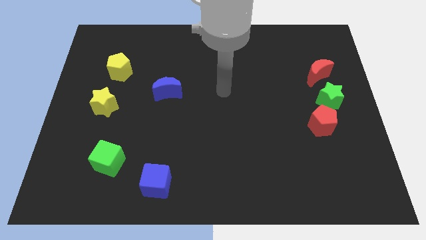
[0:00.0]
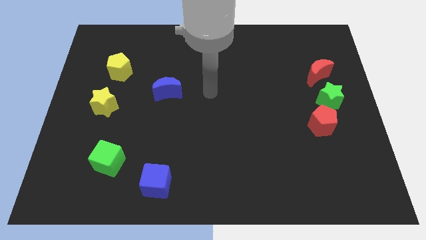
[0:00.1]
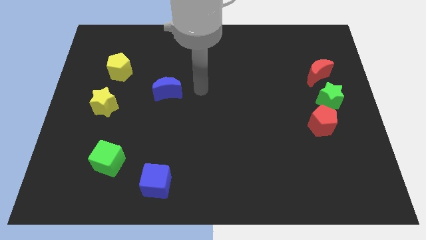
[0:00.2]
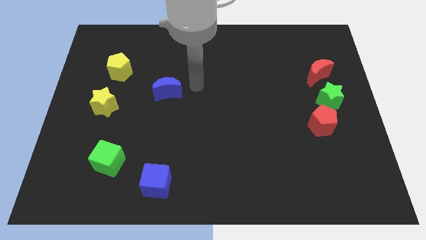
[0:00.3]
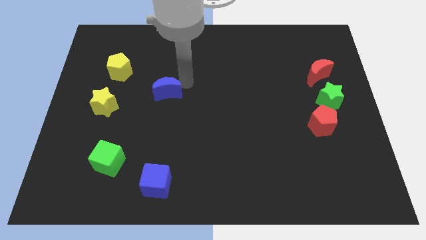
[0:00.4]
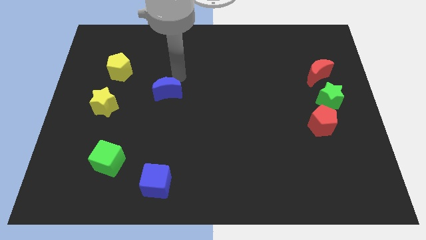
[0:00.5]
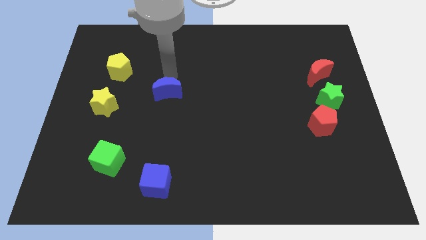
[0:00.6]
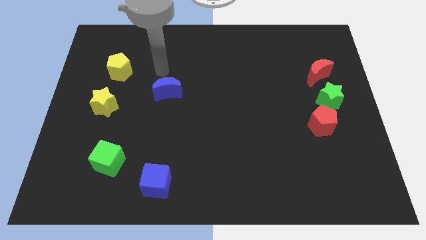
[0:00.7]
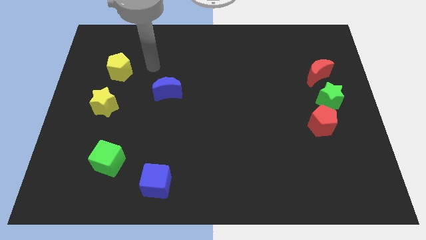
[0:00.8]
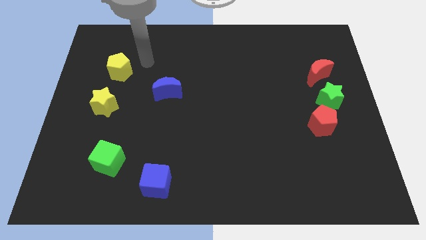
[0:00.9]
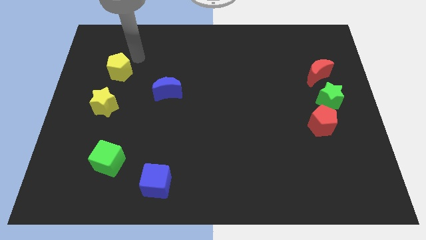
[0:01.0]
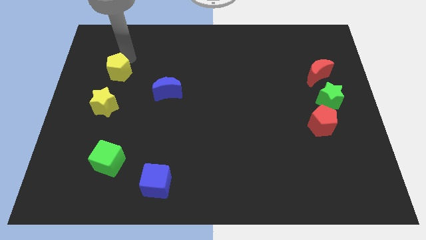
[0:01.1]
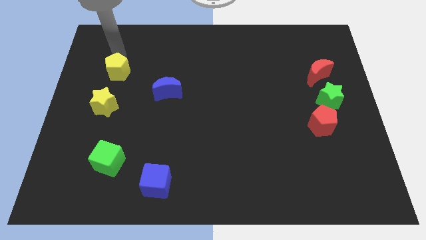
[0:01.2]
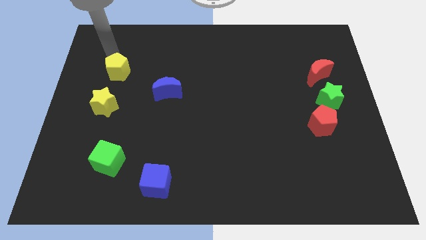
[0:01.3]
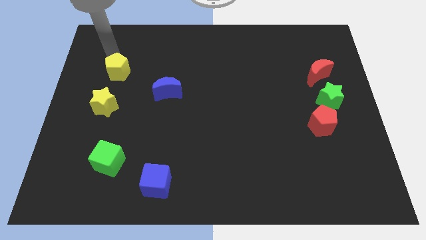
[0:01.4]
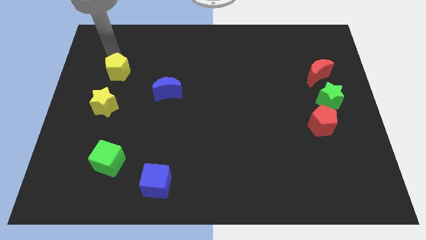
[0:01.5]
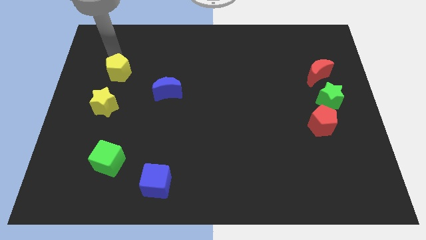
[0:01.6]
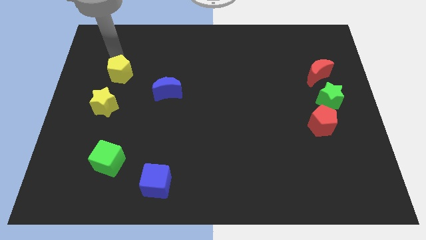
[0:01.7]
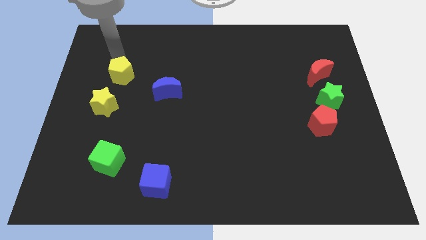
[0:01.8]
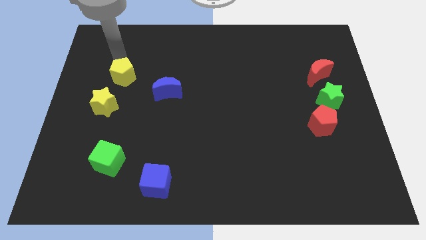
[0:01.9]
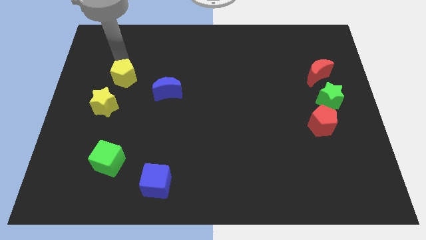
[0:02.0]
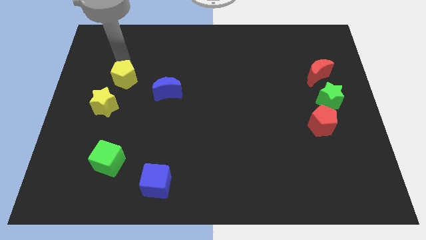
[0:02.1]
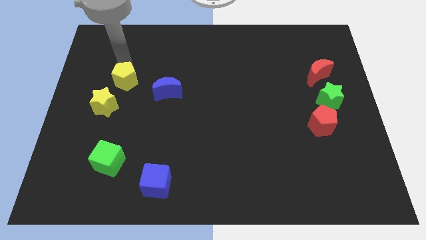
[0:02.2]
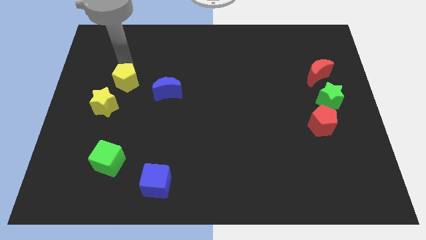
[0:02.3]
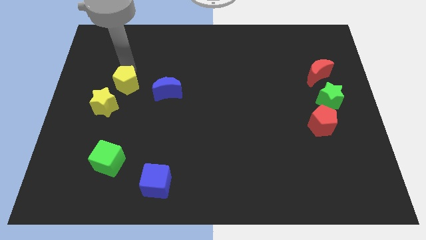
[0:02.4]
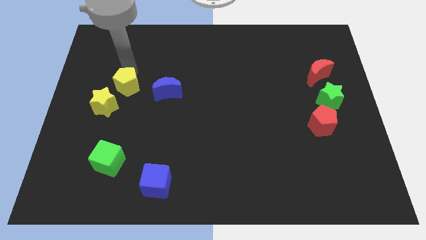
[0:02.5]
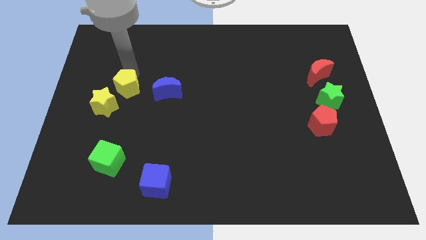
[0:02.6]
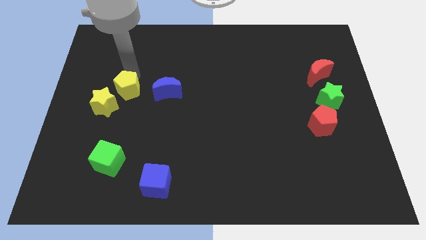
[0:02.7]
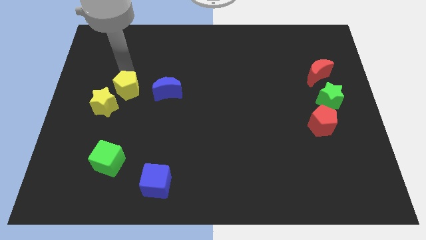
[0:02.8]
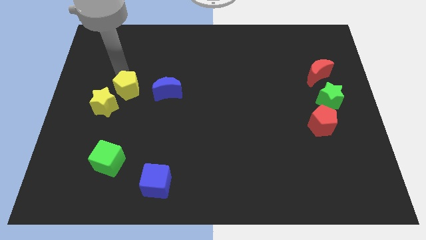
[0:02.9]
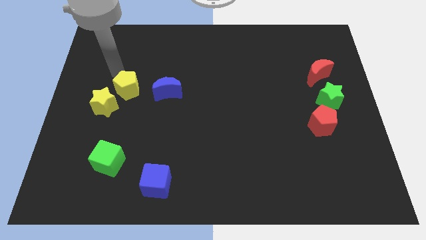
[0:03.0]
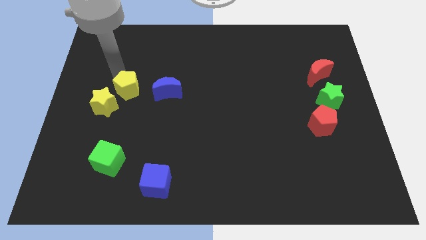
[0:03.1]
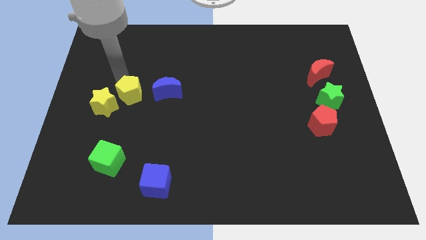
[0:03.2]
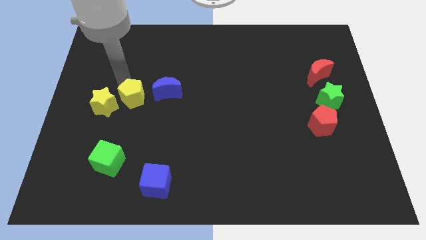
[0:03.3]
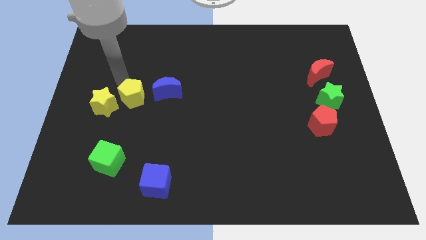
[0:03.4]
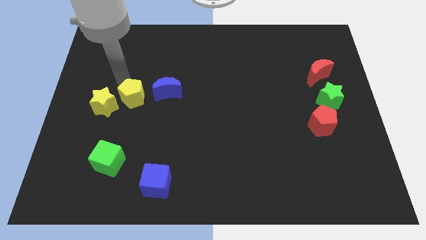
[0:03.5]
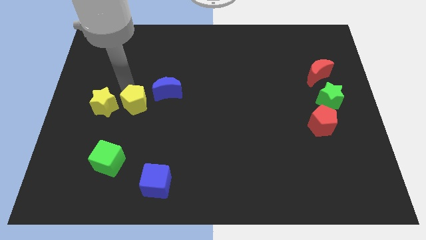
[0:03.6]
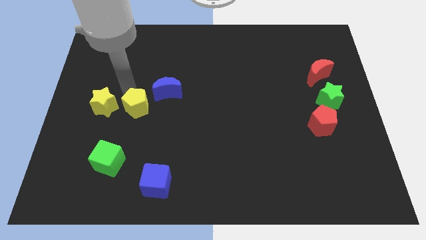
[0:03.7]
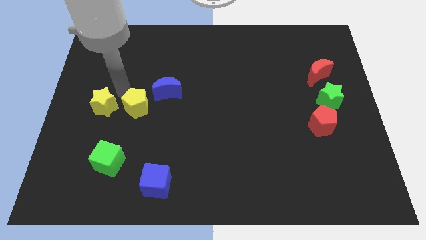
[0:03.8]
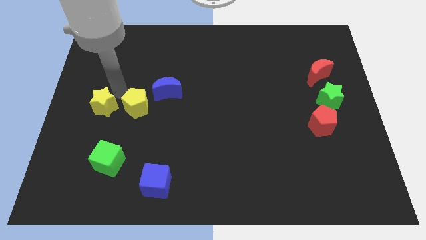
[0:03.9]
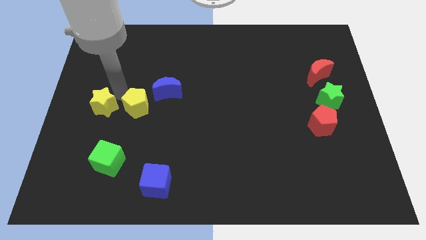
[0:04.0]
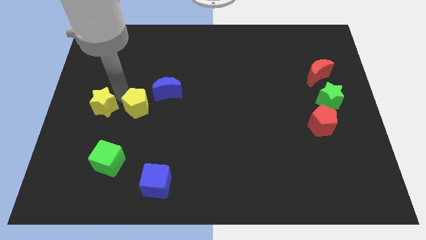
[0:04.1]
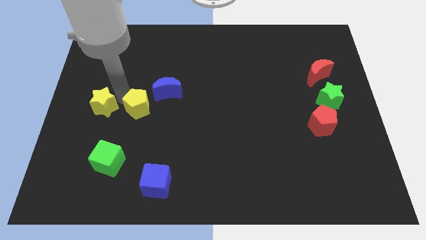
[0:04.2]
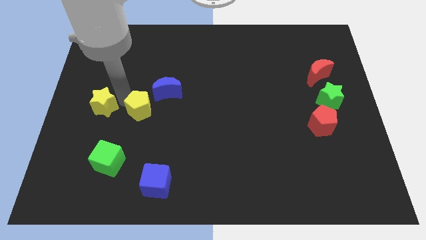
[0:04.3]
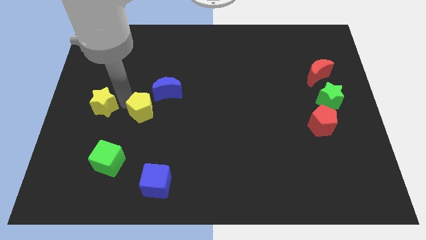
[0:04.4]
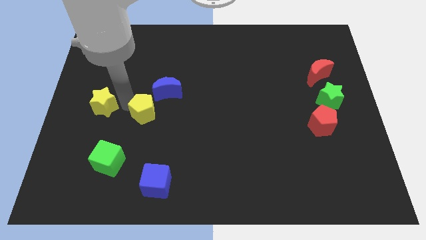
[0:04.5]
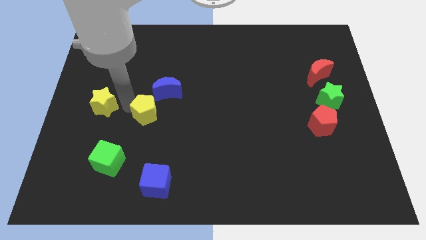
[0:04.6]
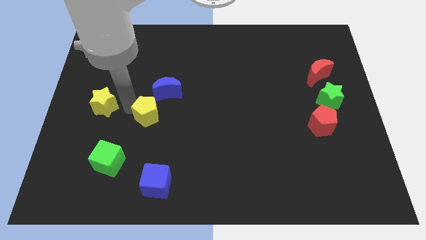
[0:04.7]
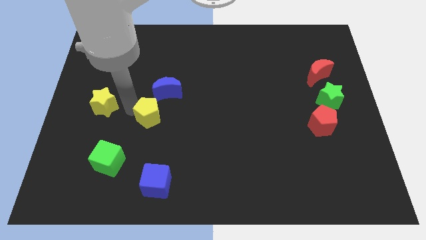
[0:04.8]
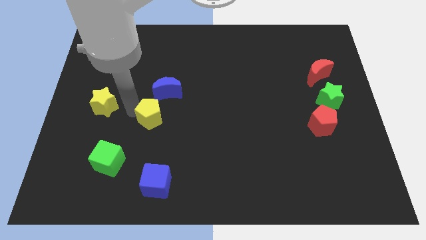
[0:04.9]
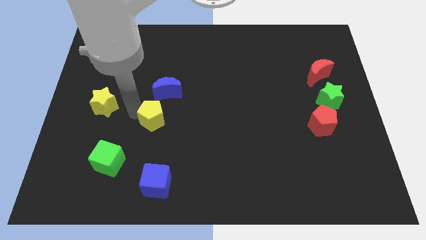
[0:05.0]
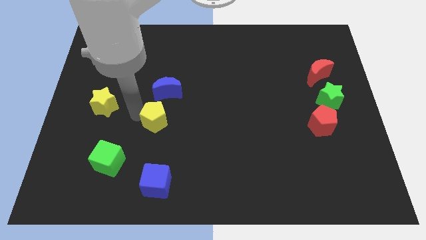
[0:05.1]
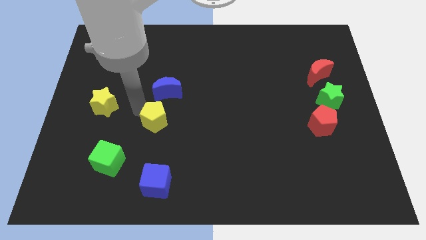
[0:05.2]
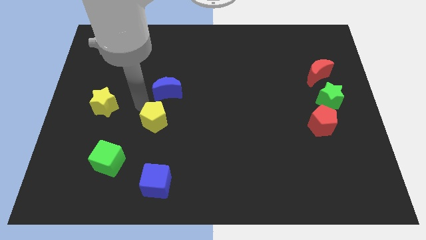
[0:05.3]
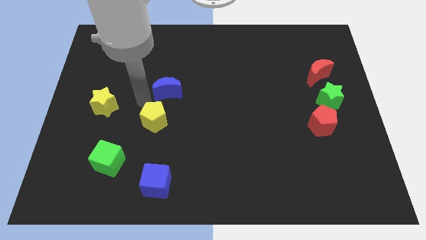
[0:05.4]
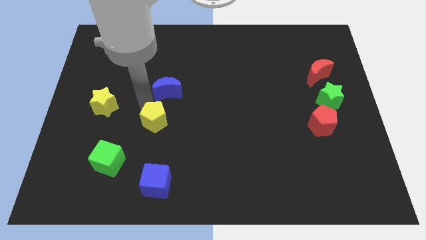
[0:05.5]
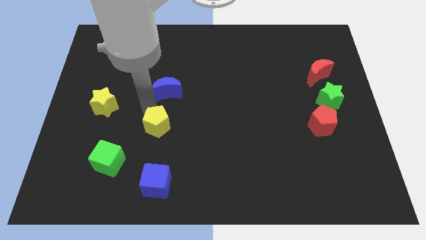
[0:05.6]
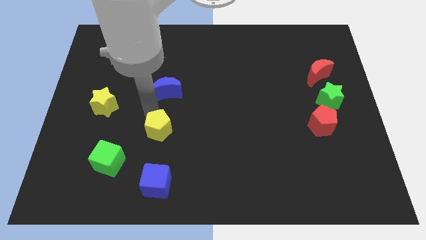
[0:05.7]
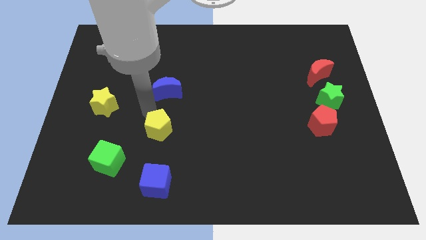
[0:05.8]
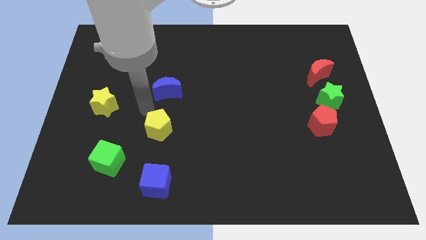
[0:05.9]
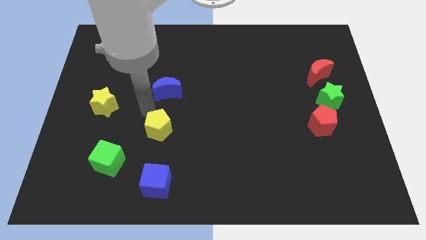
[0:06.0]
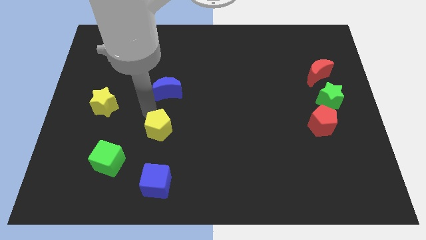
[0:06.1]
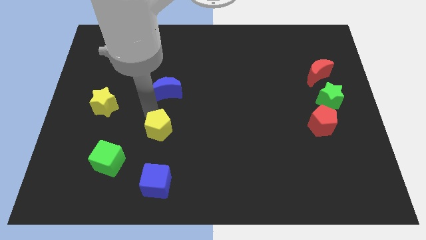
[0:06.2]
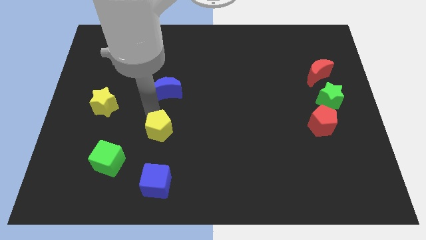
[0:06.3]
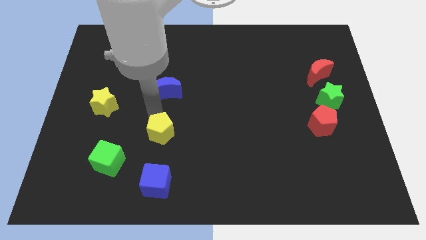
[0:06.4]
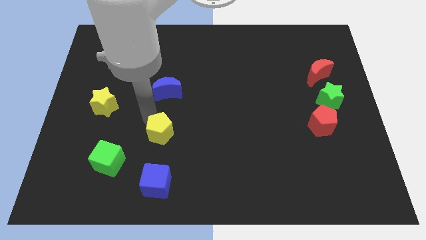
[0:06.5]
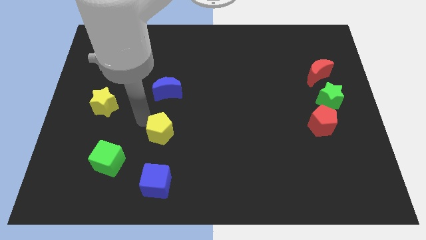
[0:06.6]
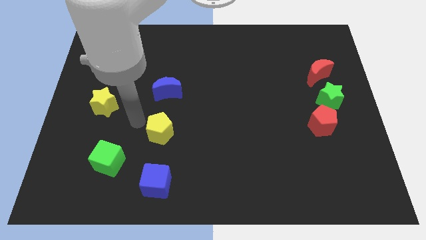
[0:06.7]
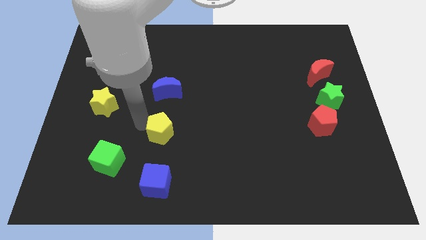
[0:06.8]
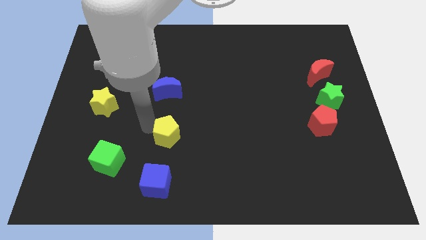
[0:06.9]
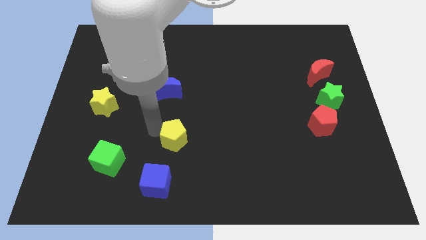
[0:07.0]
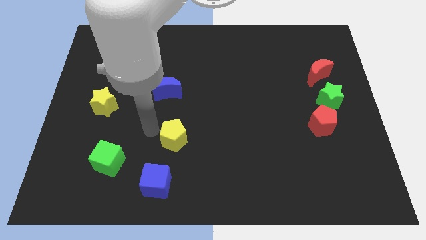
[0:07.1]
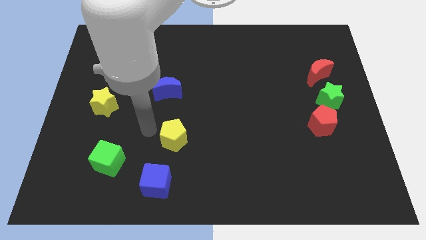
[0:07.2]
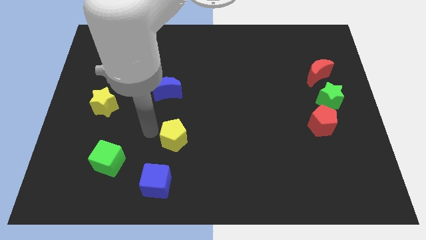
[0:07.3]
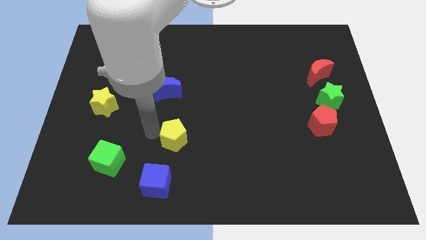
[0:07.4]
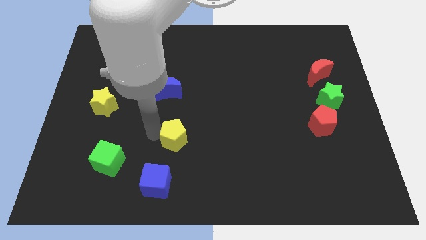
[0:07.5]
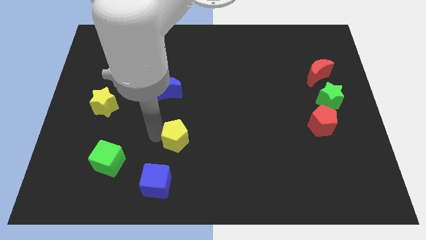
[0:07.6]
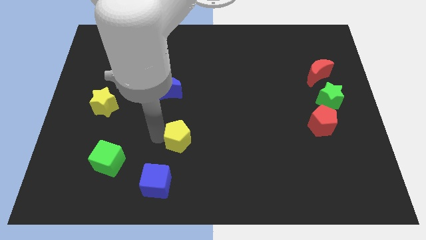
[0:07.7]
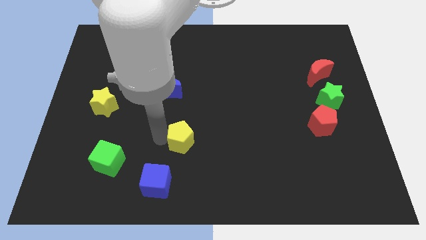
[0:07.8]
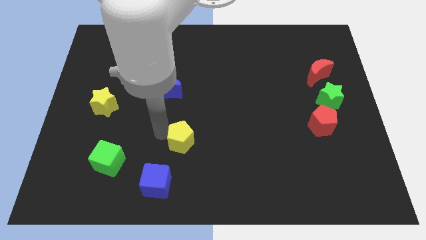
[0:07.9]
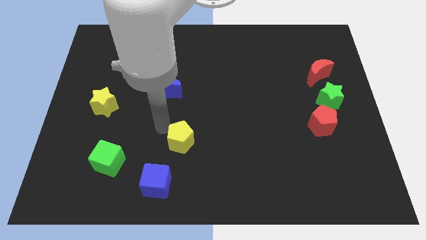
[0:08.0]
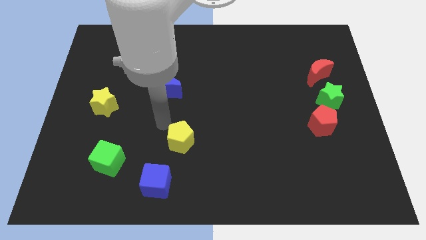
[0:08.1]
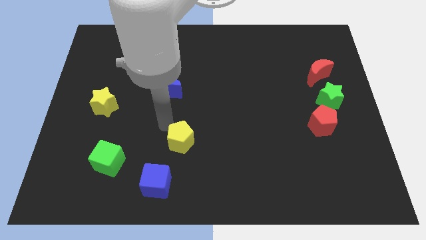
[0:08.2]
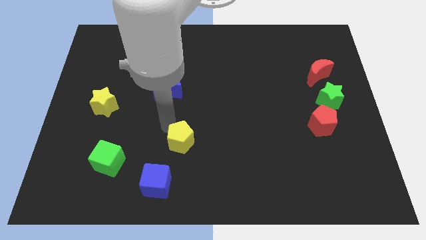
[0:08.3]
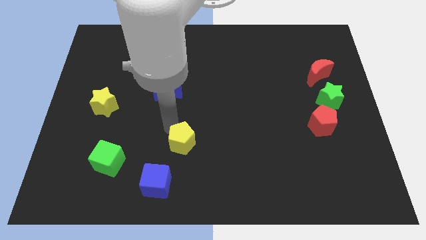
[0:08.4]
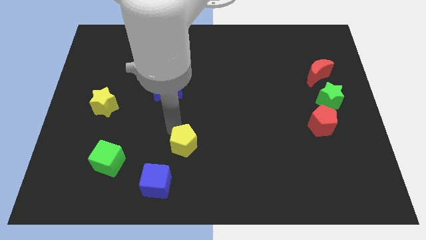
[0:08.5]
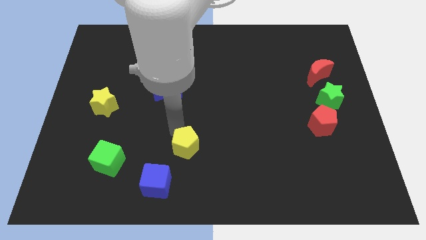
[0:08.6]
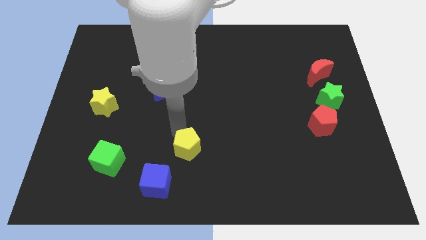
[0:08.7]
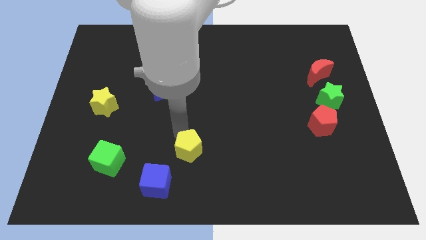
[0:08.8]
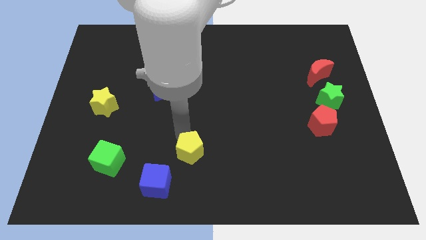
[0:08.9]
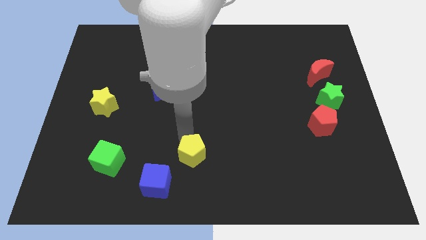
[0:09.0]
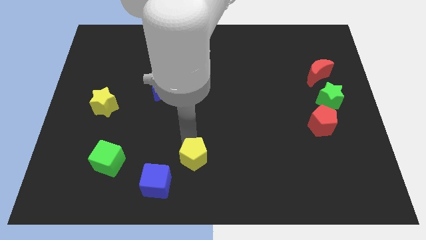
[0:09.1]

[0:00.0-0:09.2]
move the yellow pentagon to the bottom
